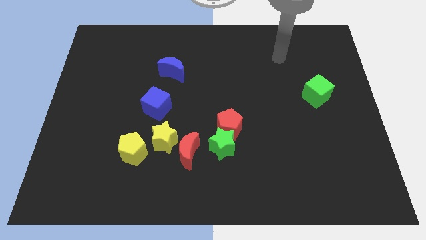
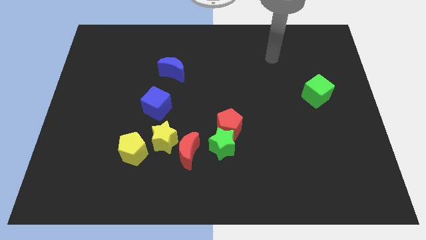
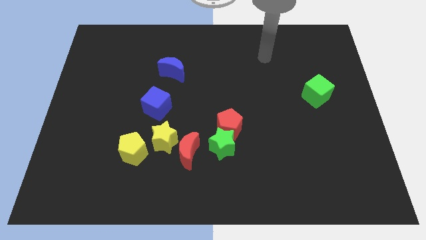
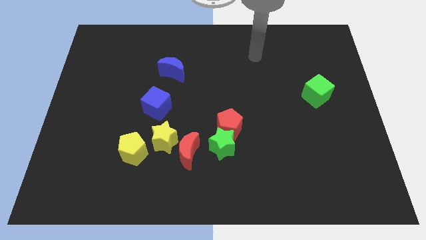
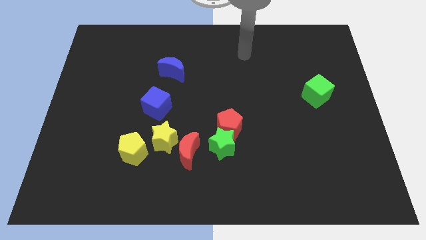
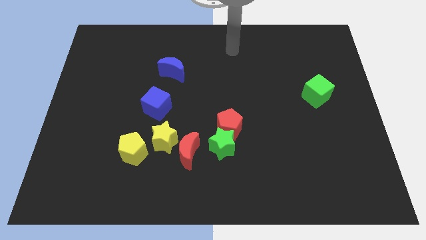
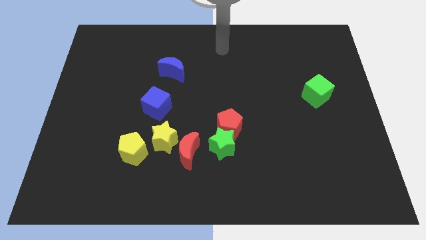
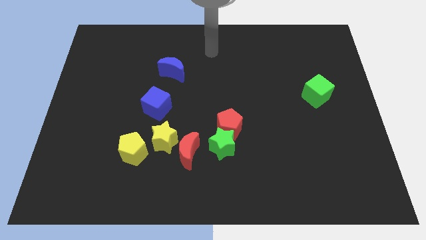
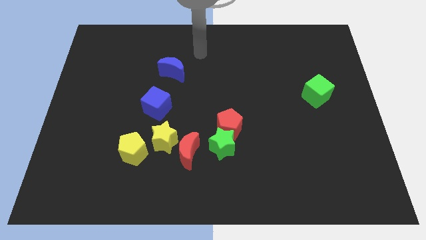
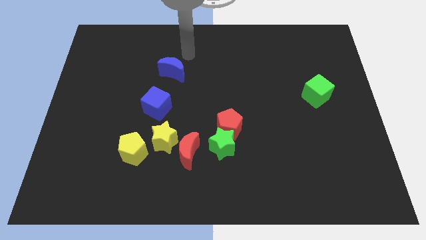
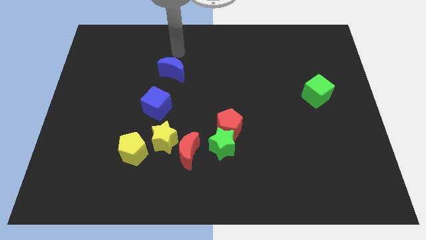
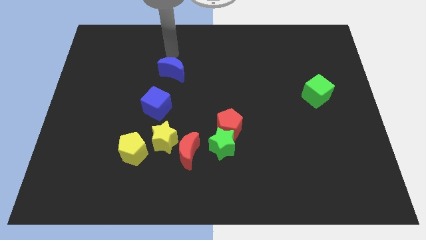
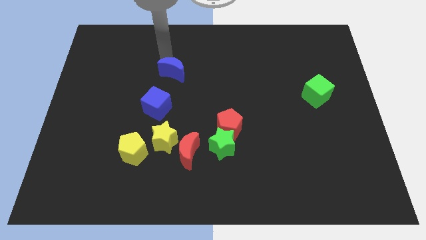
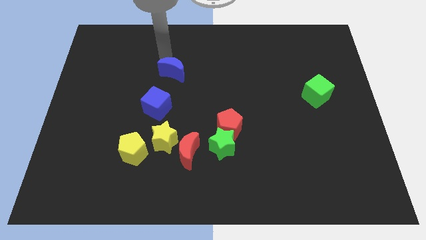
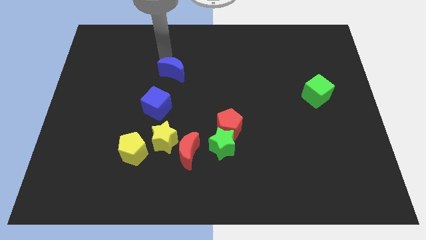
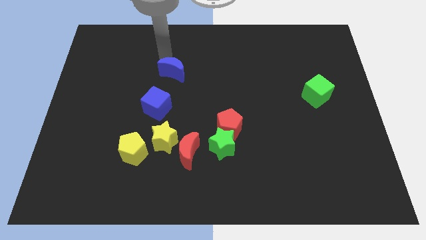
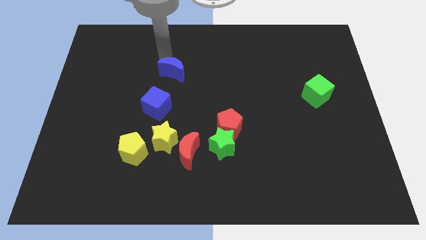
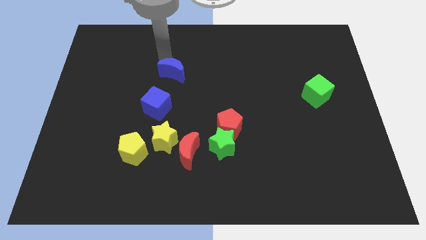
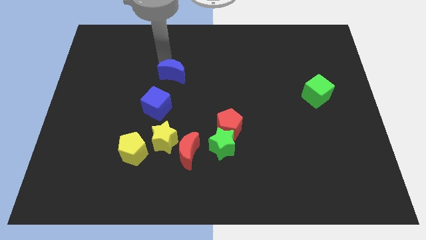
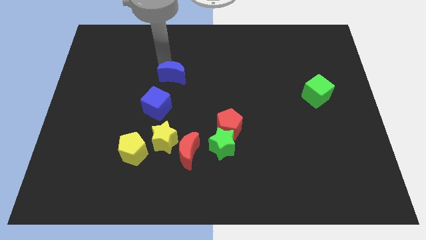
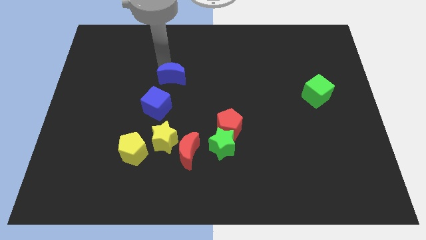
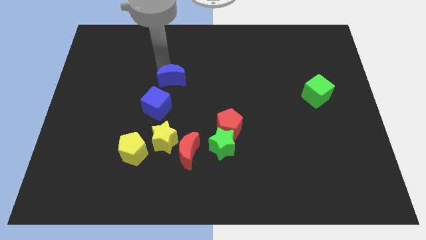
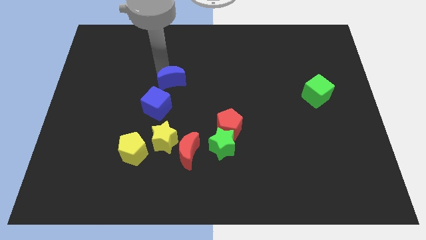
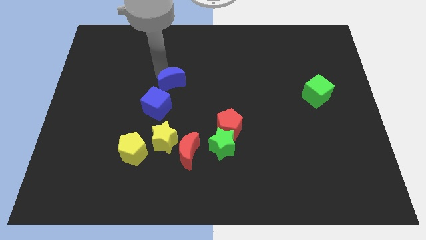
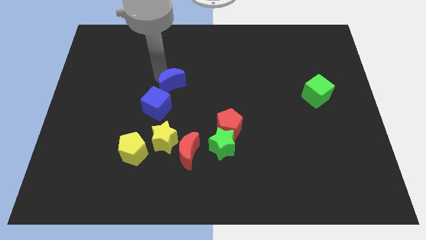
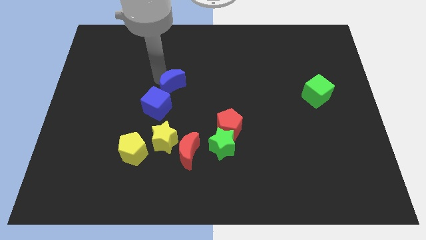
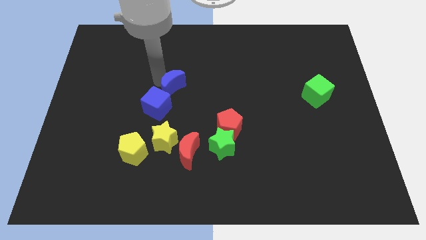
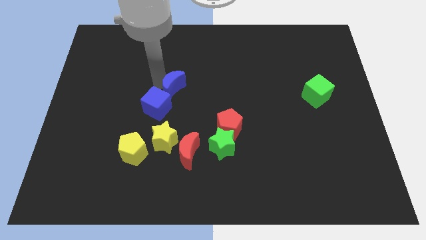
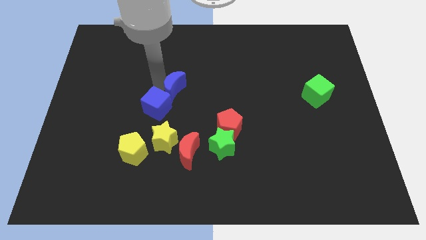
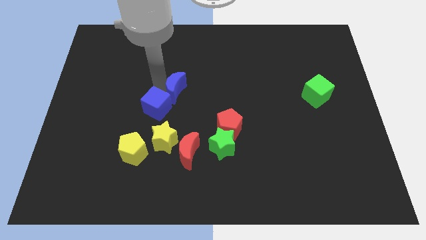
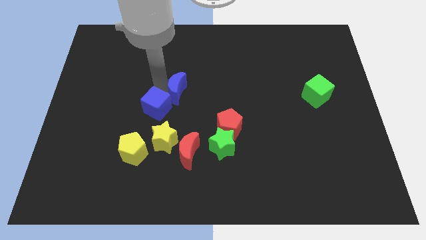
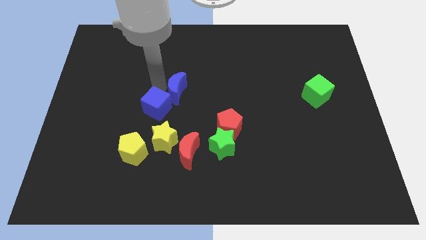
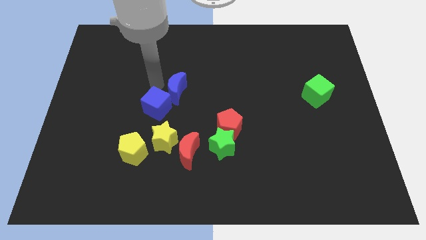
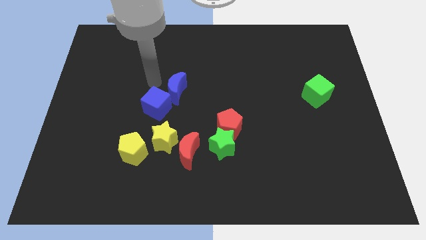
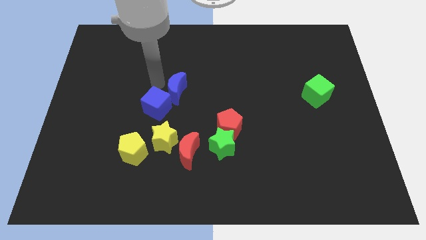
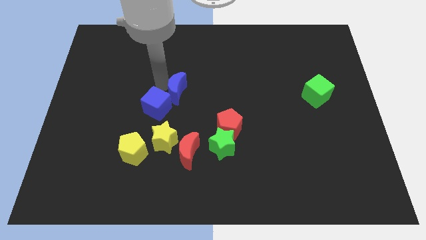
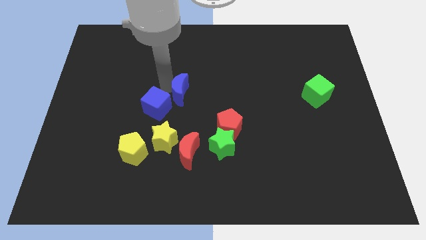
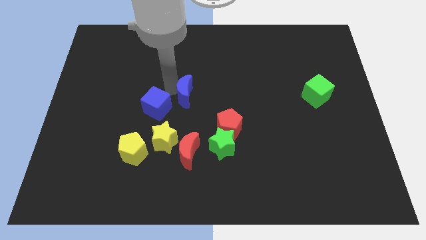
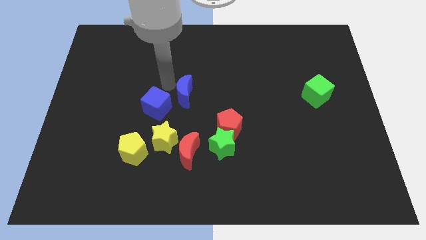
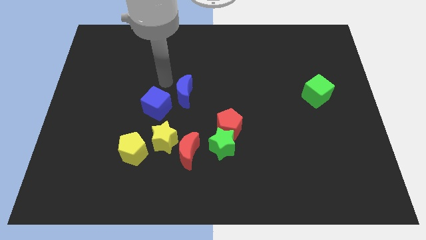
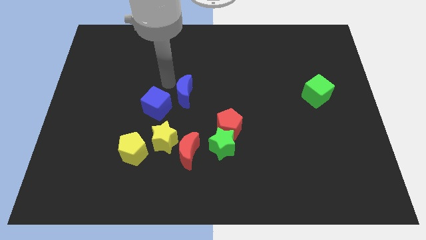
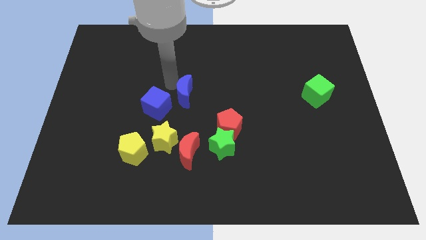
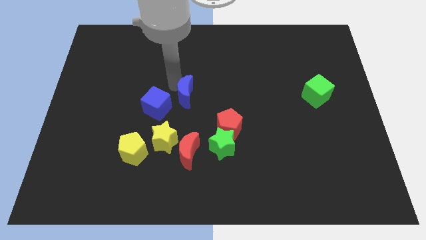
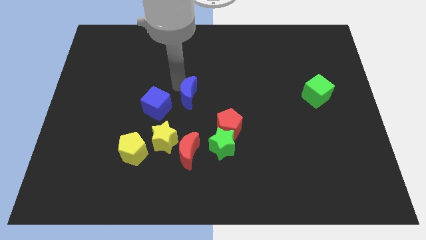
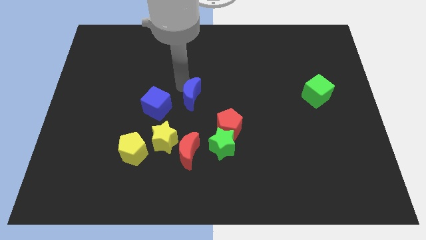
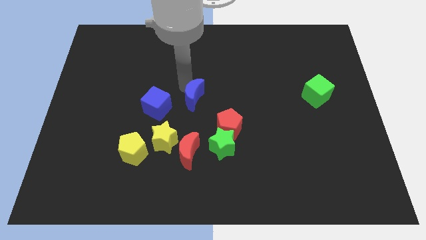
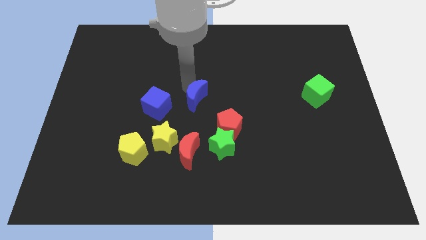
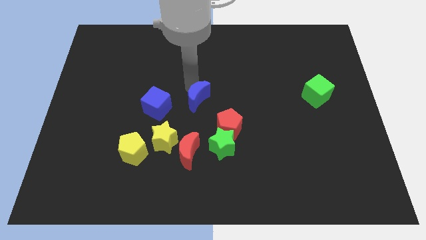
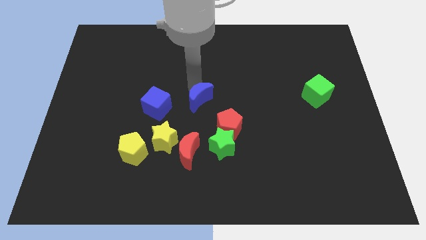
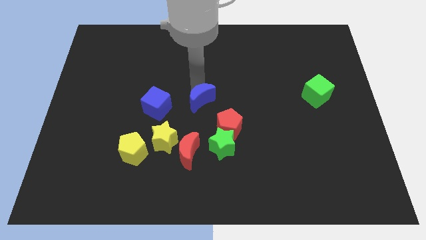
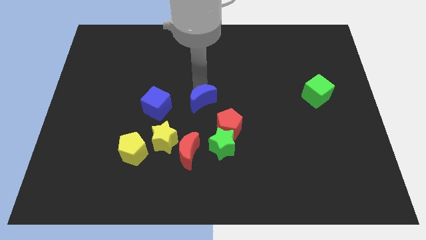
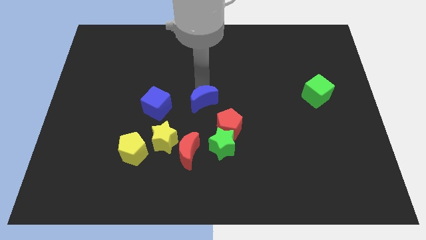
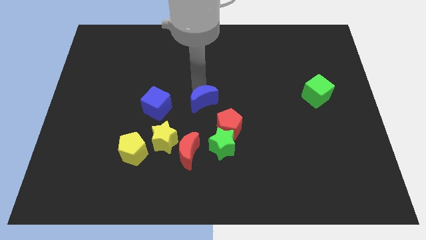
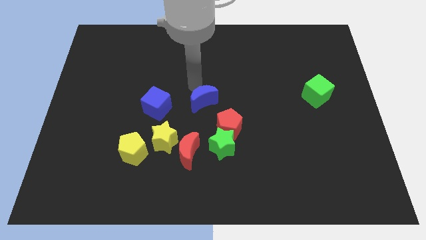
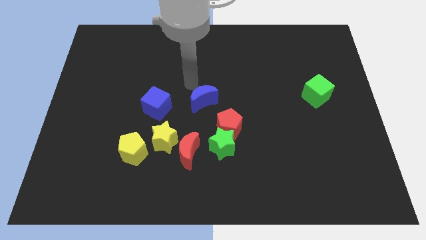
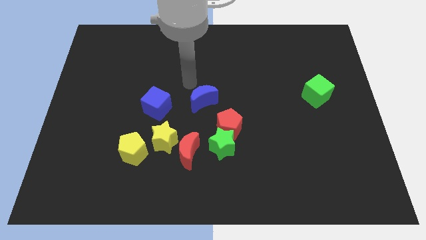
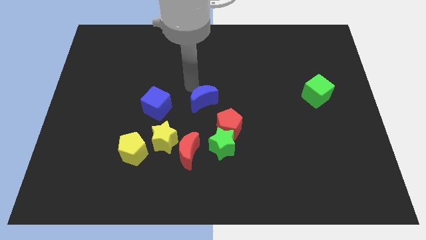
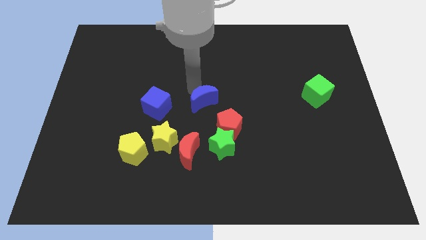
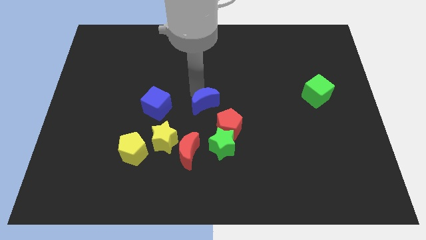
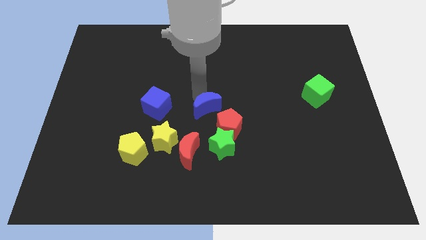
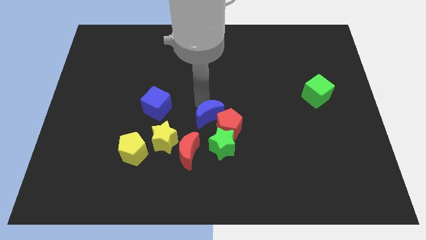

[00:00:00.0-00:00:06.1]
put the blue moon close to the red pentagon

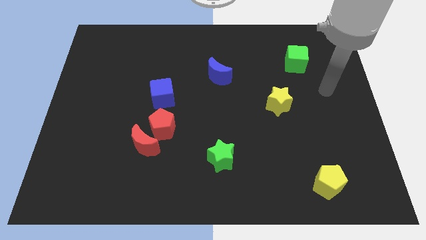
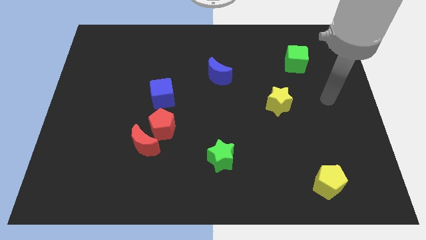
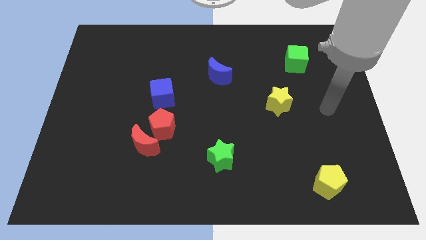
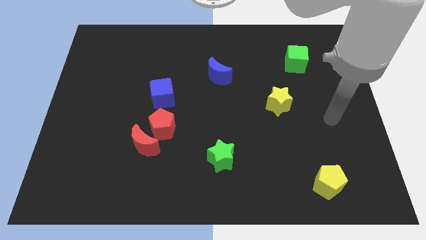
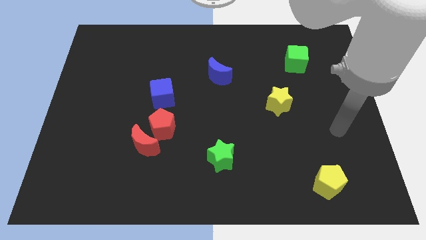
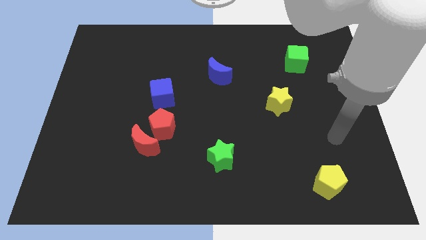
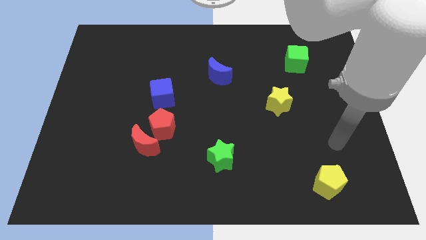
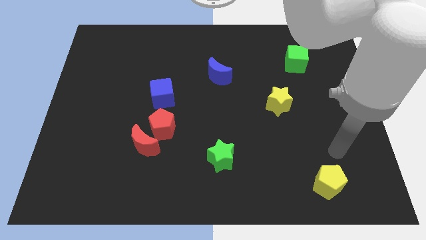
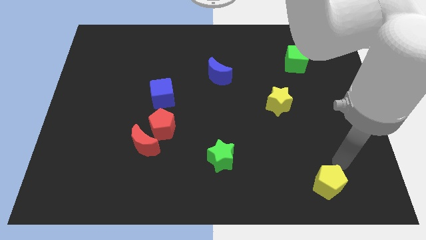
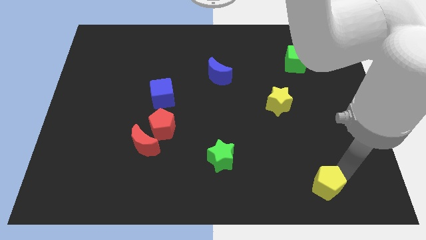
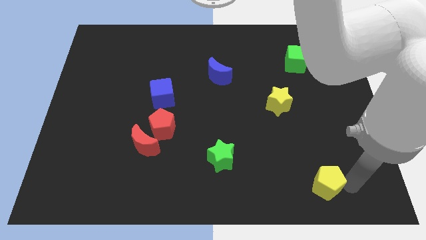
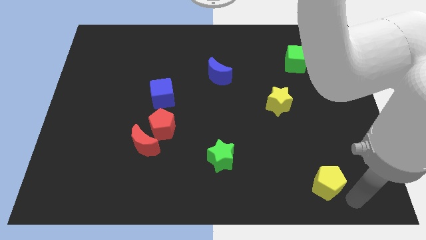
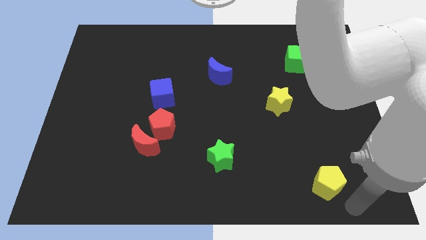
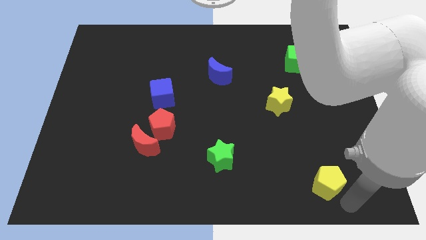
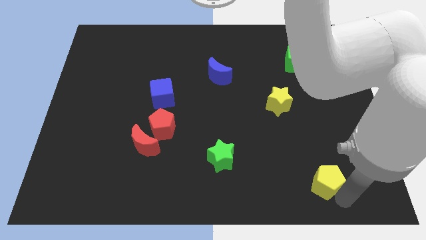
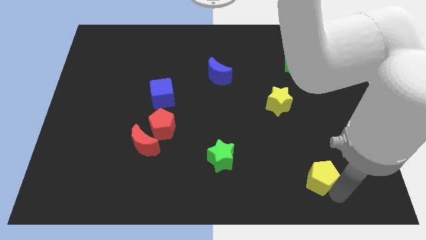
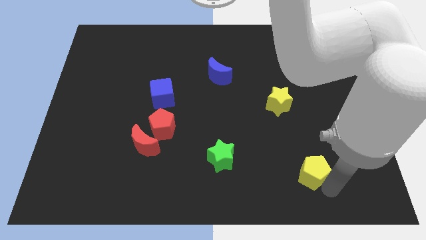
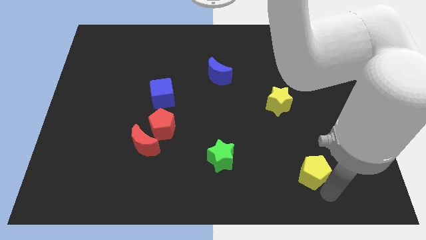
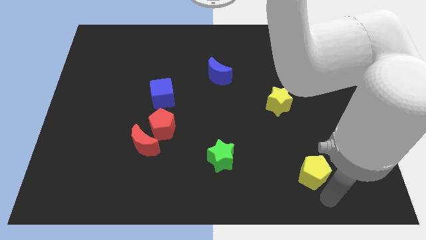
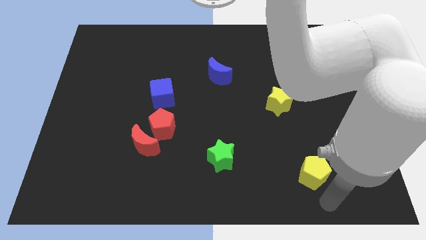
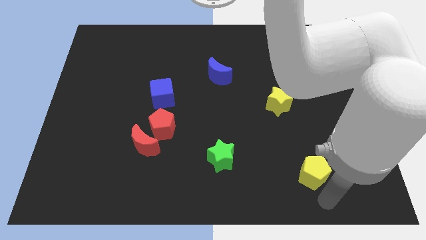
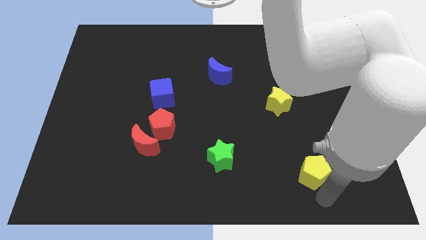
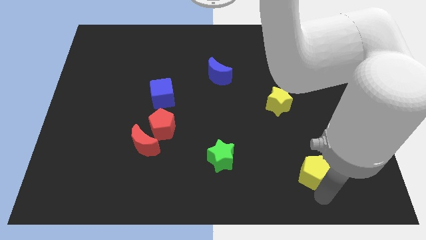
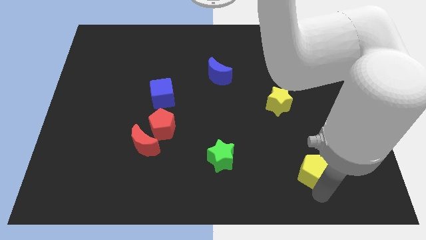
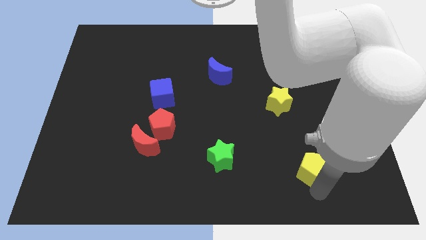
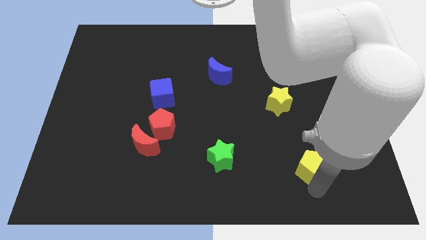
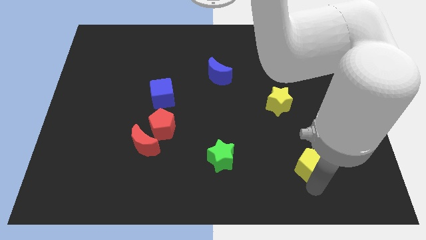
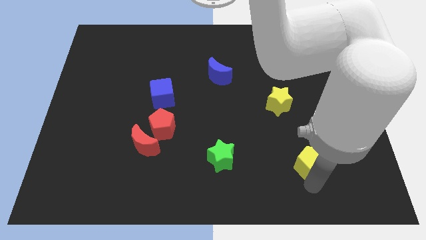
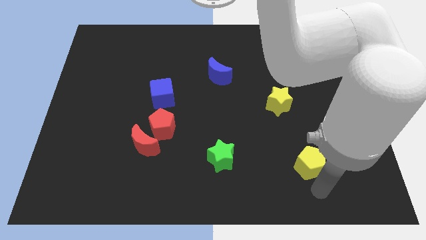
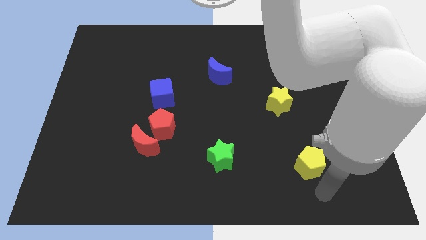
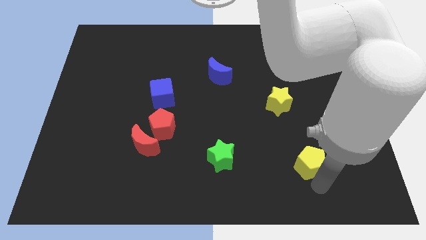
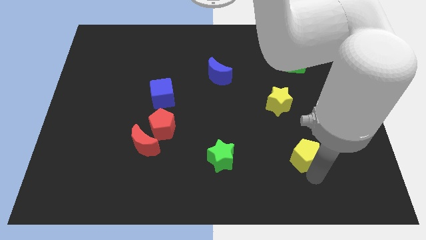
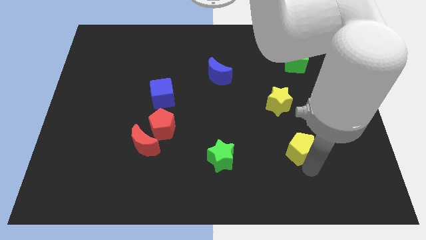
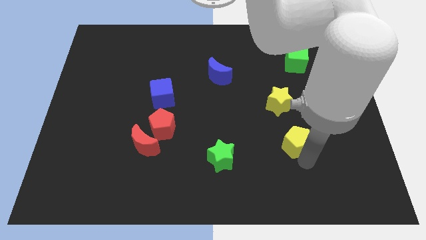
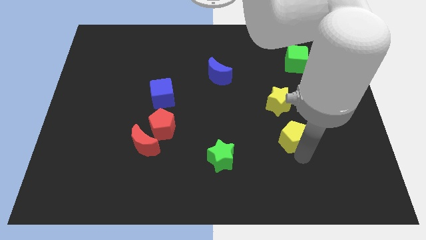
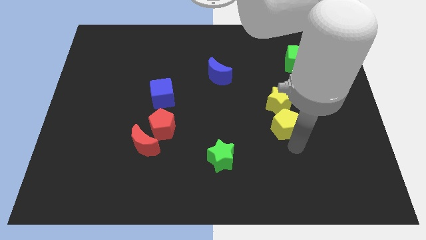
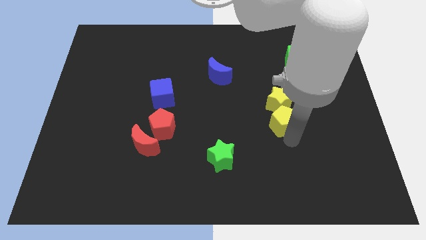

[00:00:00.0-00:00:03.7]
push the yellow pentagon to the yellow star
